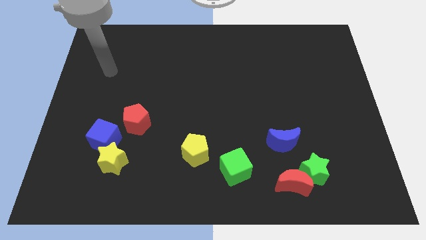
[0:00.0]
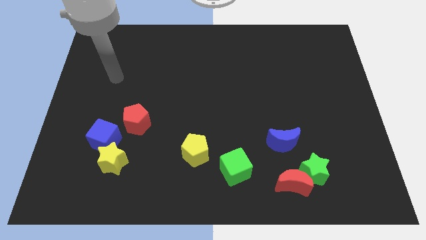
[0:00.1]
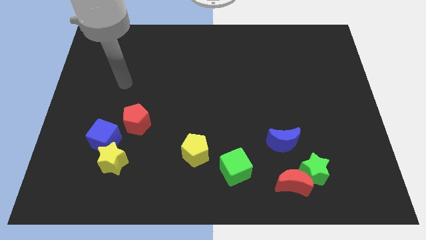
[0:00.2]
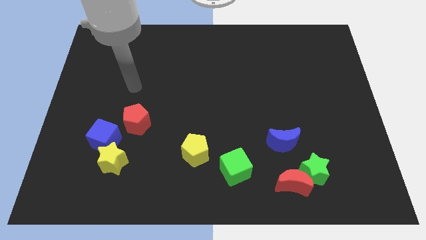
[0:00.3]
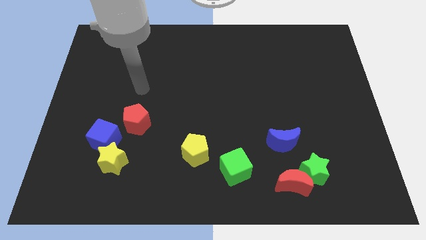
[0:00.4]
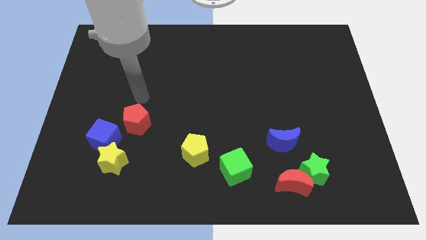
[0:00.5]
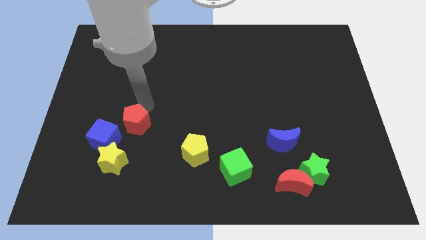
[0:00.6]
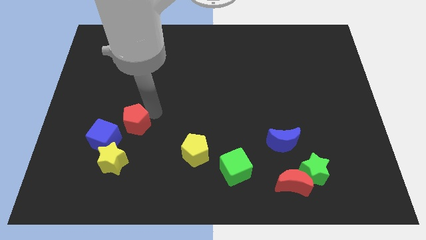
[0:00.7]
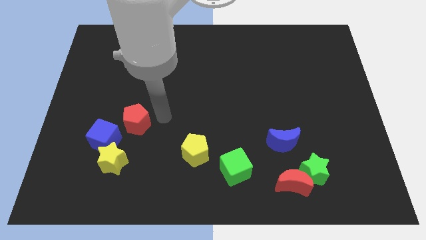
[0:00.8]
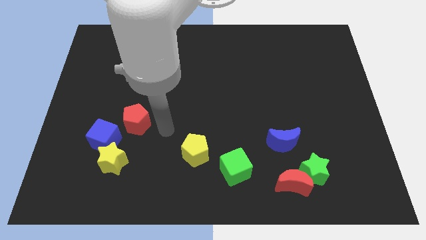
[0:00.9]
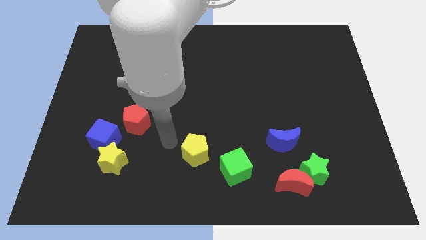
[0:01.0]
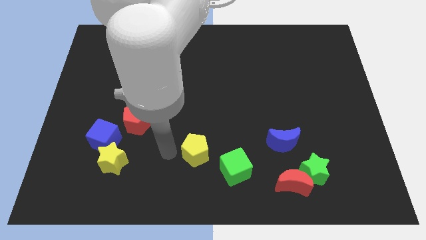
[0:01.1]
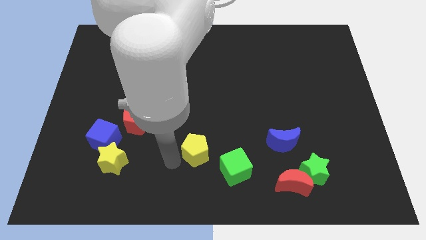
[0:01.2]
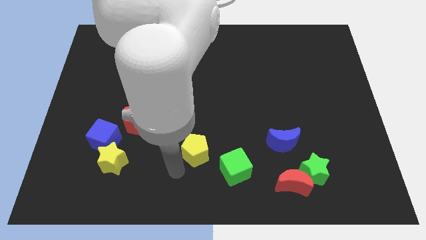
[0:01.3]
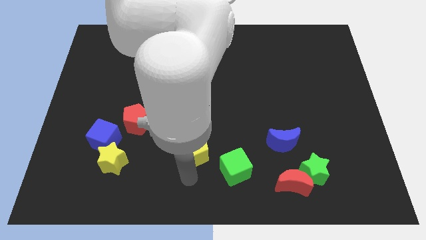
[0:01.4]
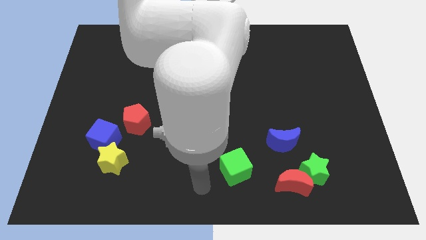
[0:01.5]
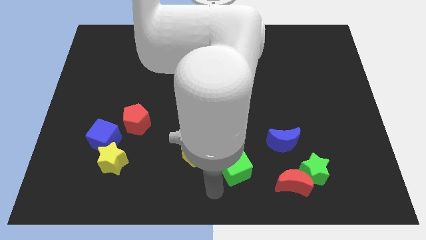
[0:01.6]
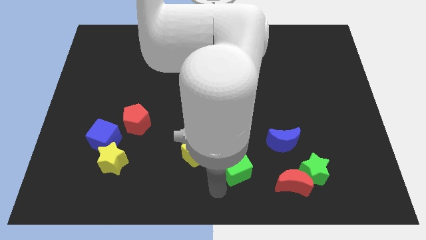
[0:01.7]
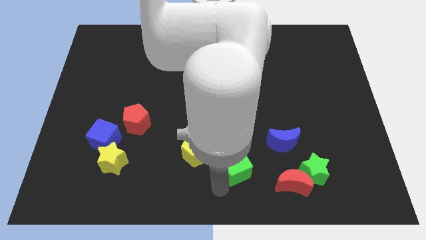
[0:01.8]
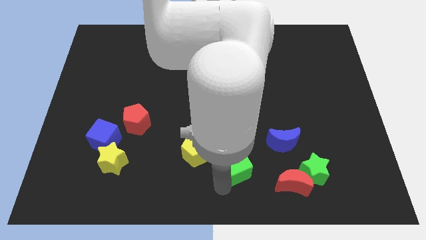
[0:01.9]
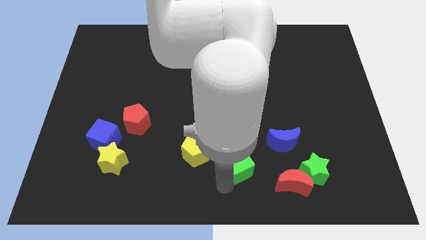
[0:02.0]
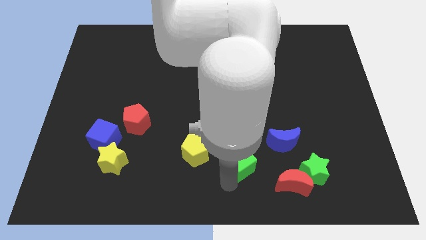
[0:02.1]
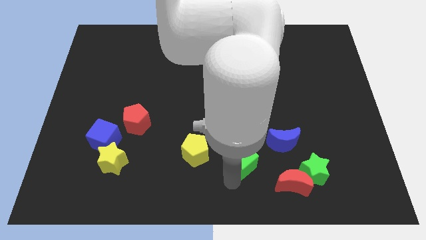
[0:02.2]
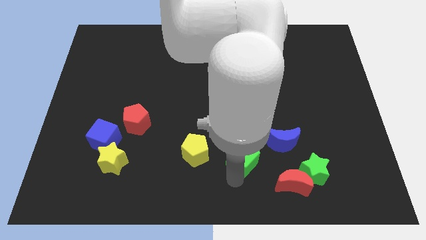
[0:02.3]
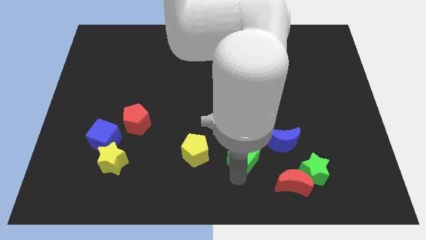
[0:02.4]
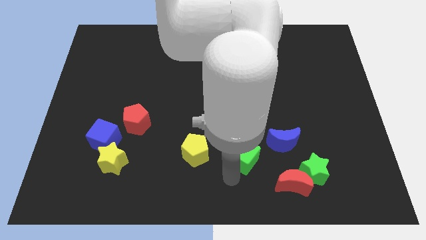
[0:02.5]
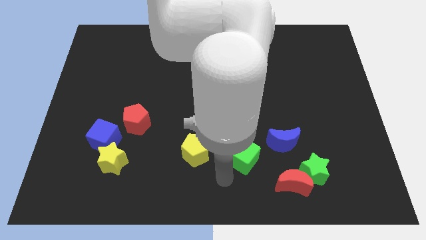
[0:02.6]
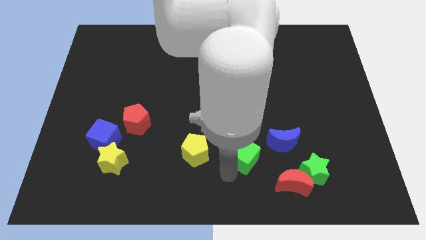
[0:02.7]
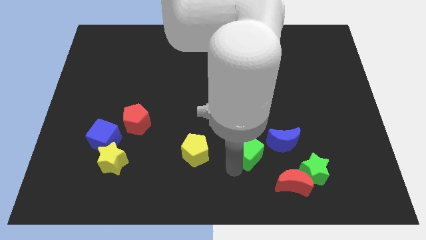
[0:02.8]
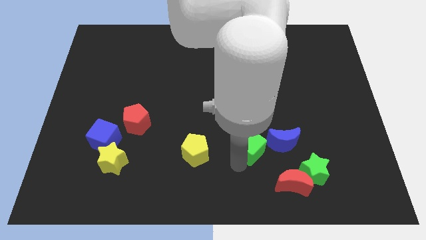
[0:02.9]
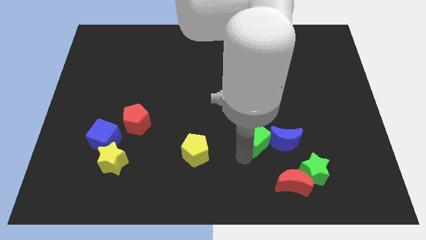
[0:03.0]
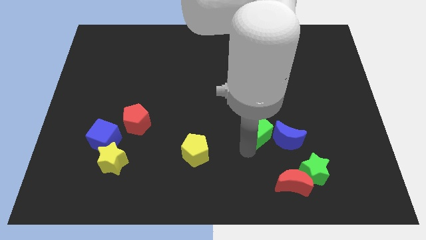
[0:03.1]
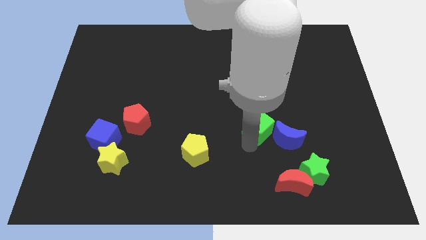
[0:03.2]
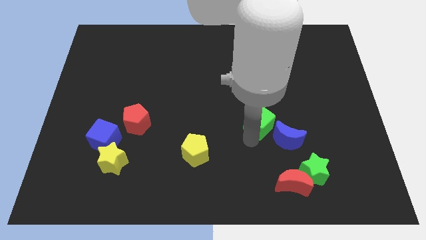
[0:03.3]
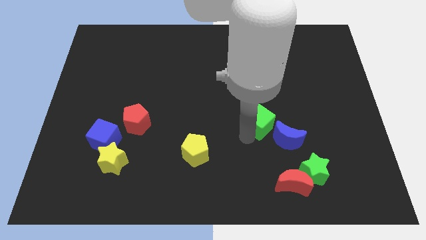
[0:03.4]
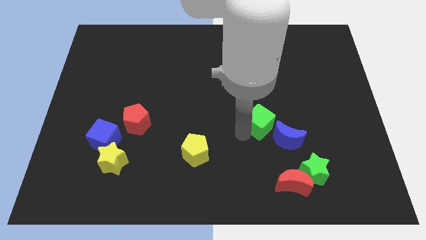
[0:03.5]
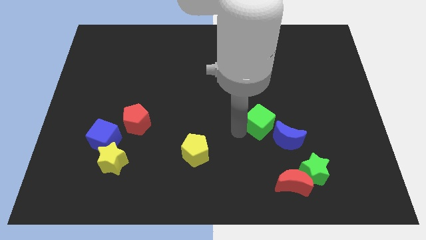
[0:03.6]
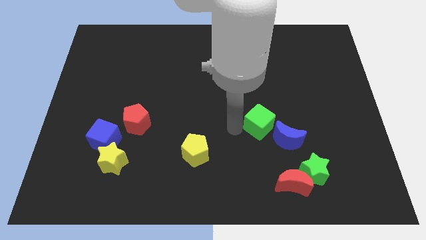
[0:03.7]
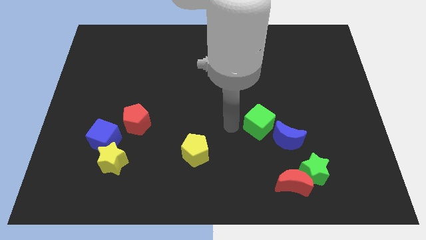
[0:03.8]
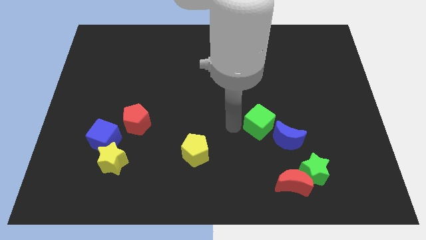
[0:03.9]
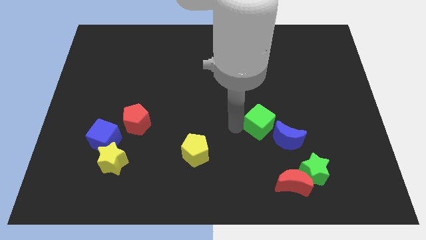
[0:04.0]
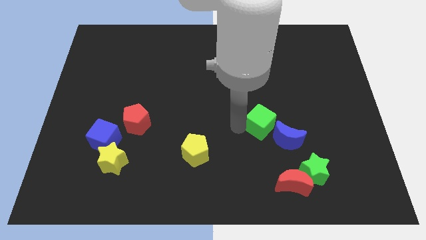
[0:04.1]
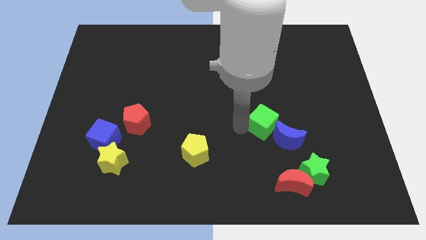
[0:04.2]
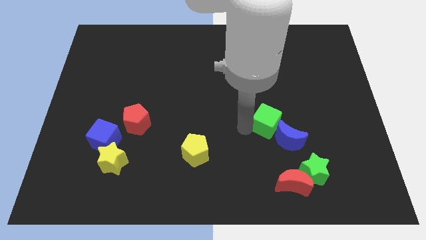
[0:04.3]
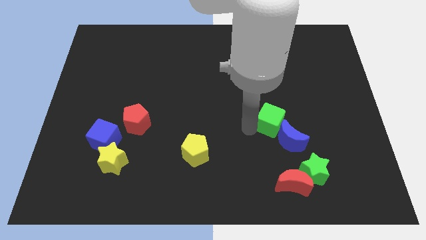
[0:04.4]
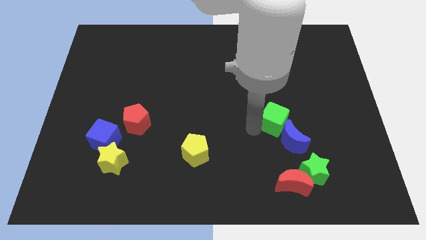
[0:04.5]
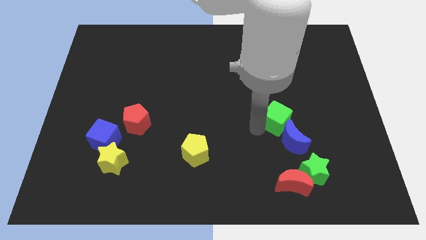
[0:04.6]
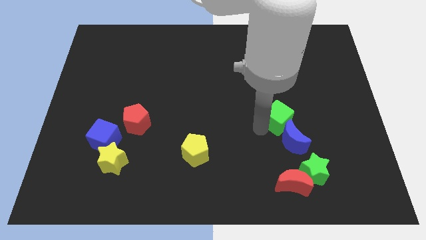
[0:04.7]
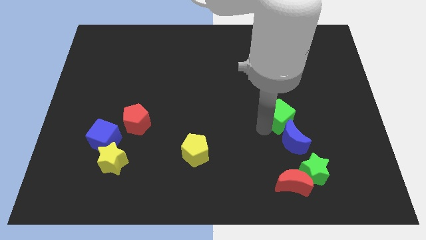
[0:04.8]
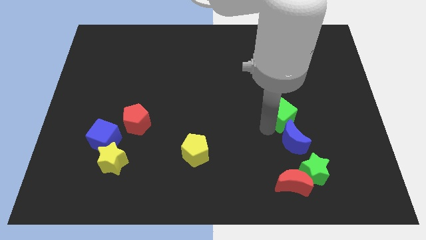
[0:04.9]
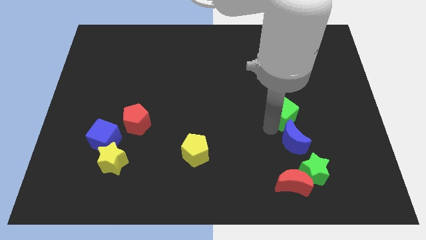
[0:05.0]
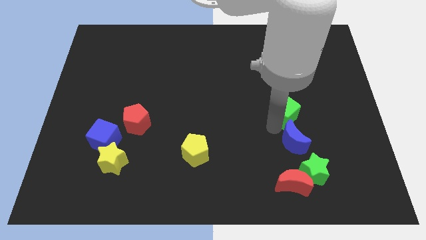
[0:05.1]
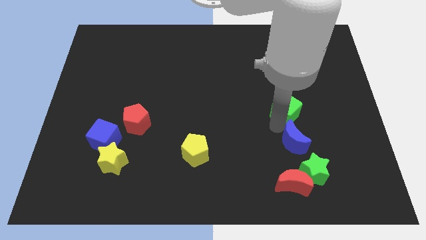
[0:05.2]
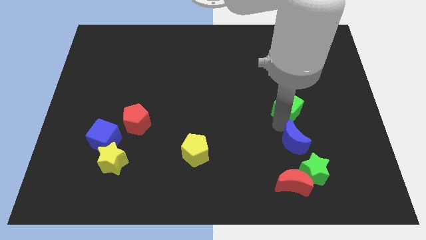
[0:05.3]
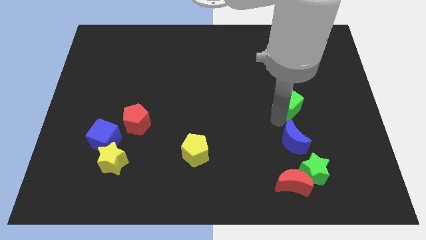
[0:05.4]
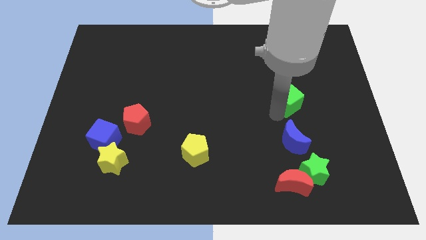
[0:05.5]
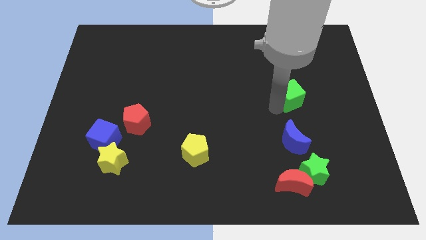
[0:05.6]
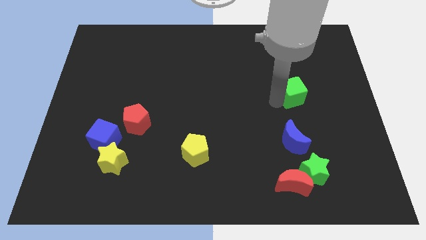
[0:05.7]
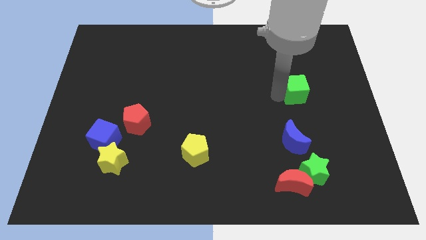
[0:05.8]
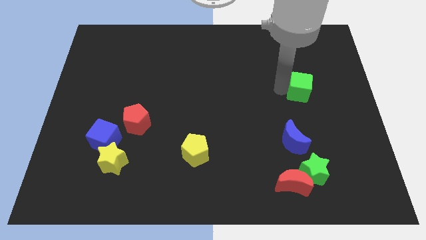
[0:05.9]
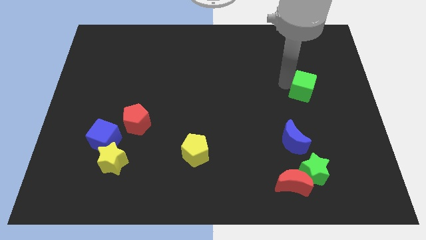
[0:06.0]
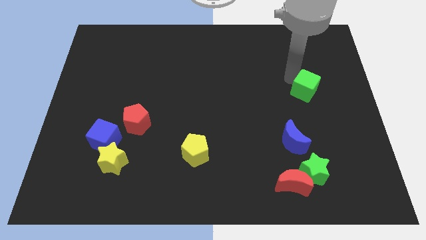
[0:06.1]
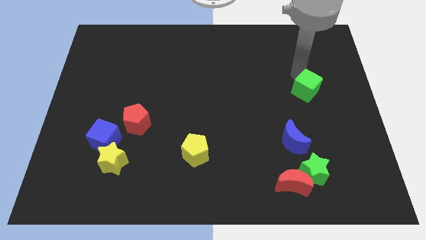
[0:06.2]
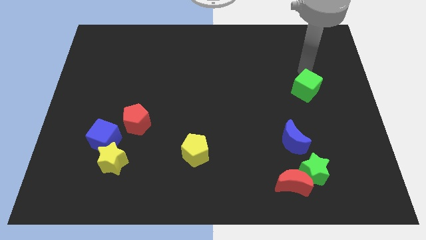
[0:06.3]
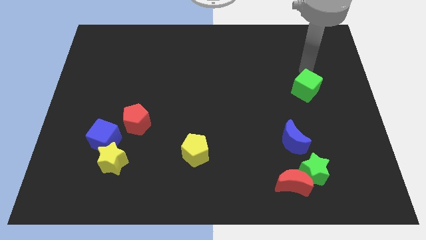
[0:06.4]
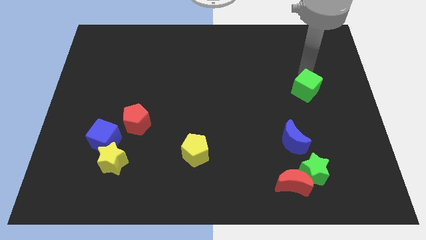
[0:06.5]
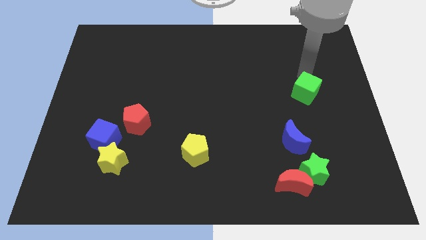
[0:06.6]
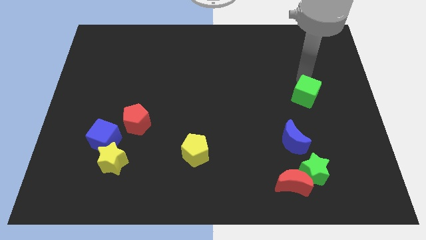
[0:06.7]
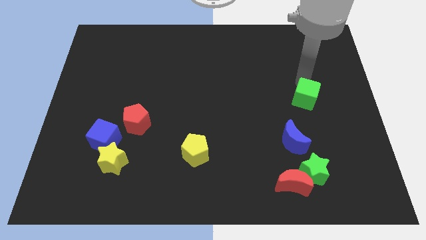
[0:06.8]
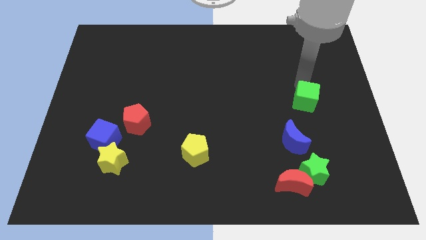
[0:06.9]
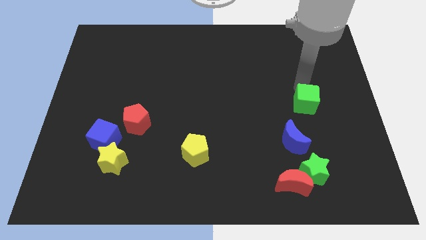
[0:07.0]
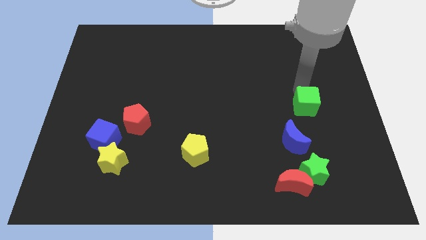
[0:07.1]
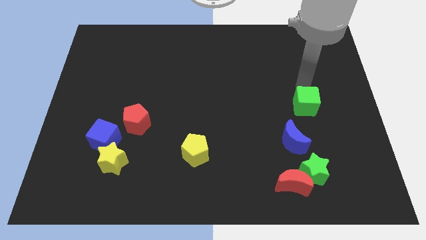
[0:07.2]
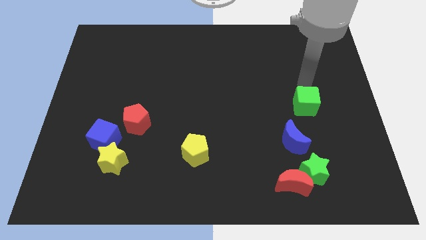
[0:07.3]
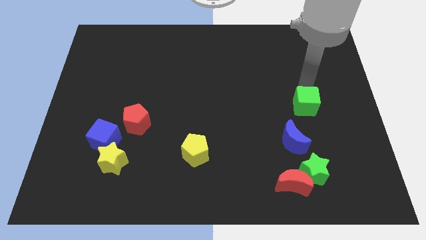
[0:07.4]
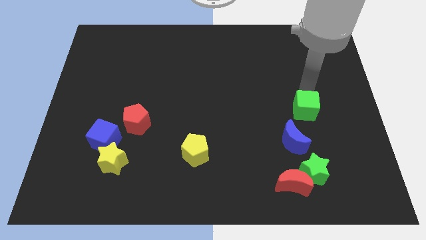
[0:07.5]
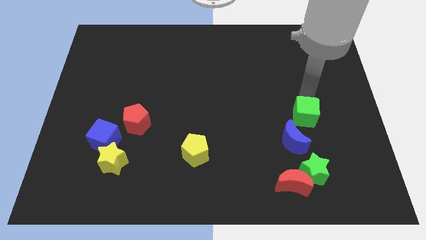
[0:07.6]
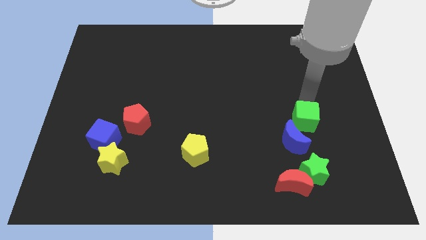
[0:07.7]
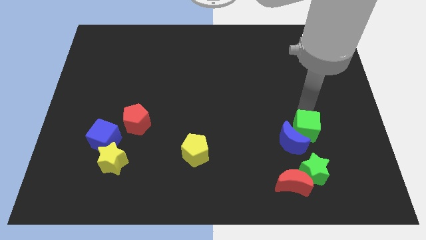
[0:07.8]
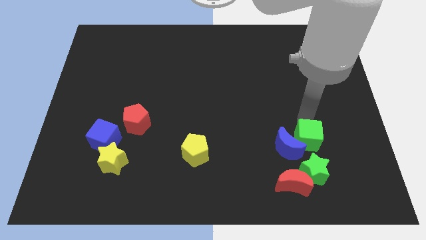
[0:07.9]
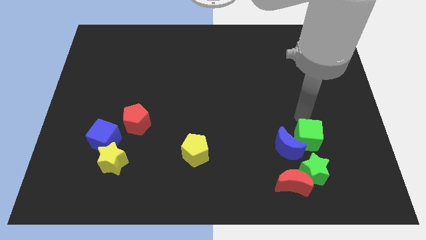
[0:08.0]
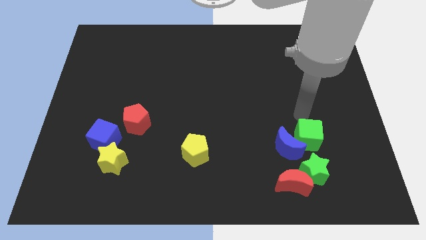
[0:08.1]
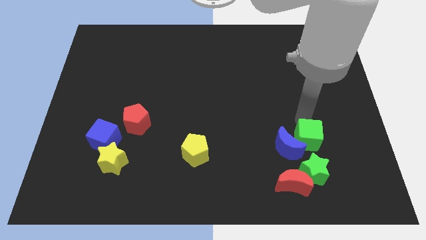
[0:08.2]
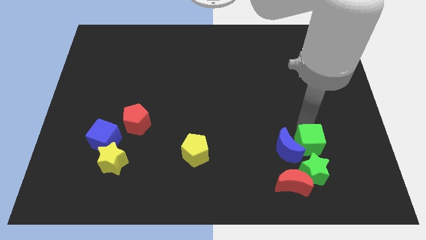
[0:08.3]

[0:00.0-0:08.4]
slide the green cube diagonally up and to the right of the red moon
